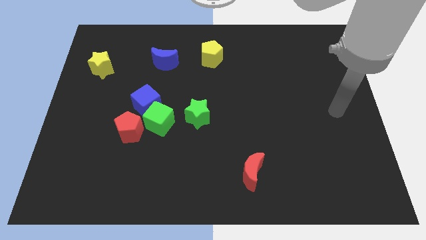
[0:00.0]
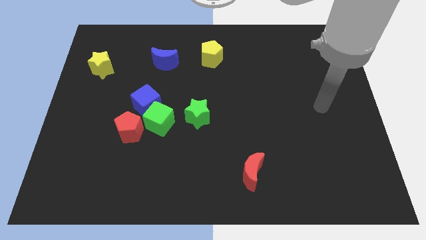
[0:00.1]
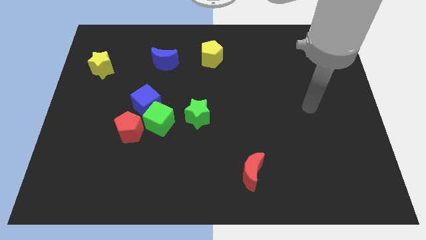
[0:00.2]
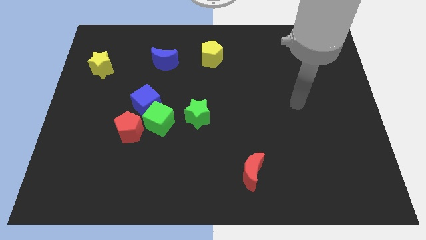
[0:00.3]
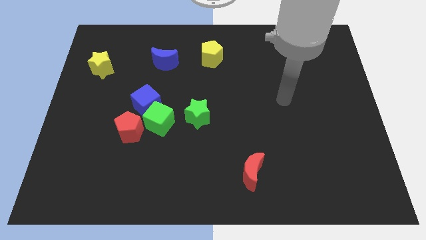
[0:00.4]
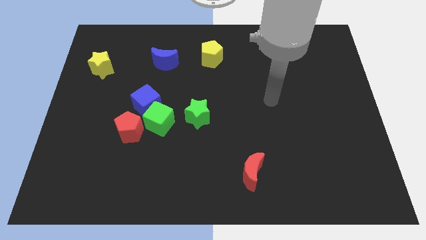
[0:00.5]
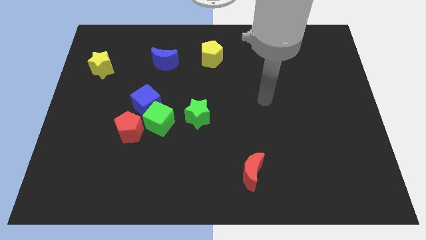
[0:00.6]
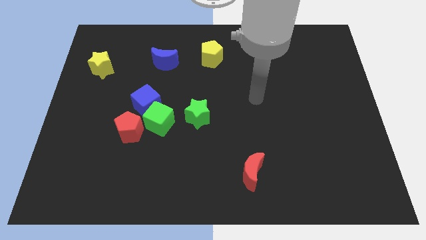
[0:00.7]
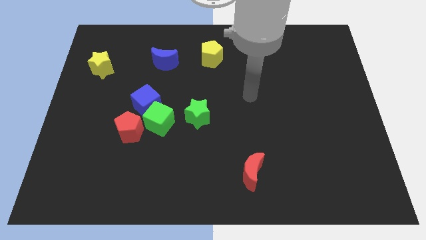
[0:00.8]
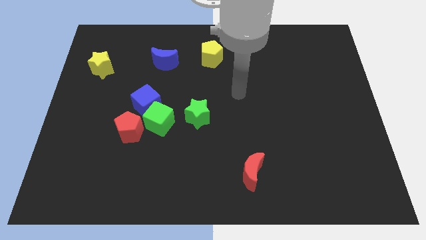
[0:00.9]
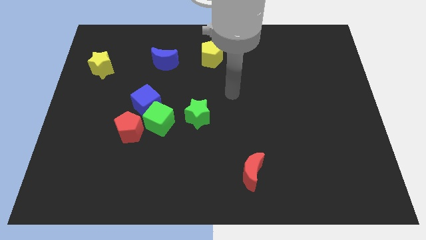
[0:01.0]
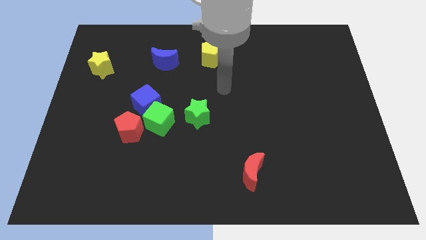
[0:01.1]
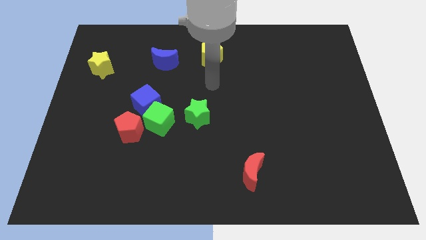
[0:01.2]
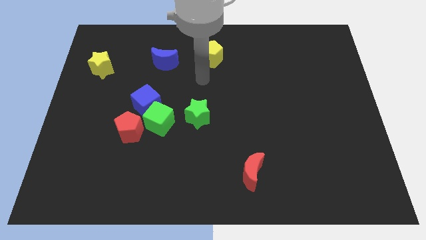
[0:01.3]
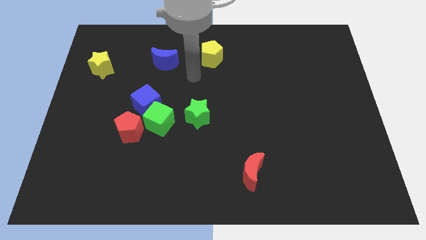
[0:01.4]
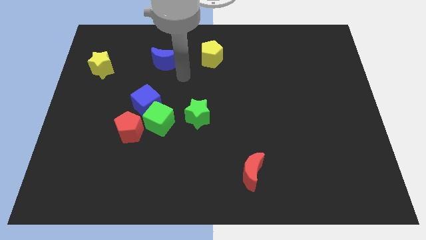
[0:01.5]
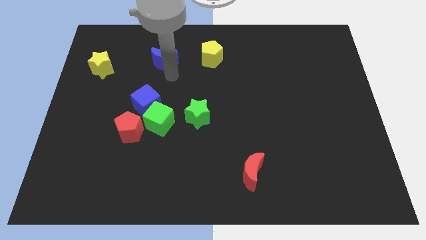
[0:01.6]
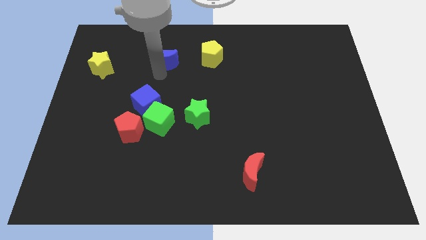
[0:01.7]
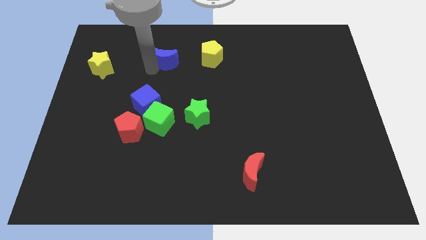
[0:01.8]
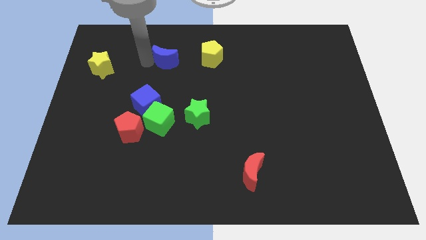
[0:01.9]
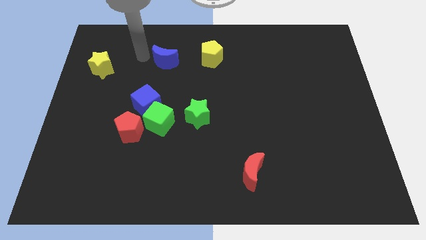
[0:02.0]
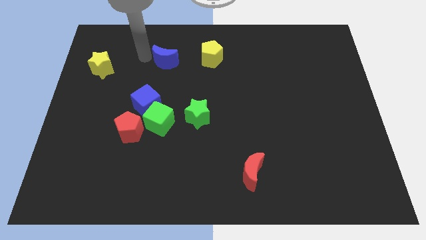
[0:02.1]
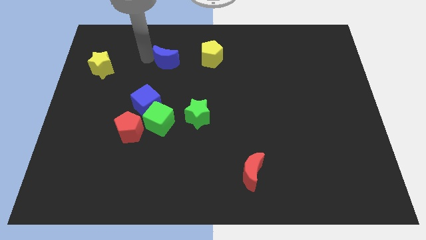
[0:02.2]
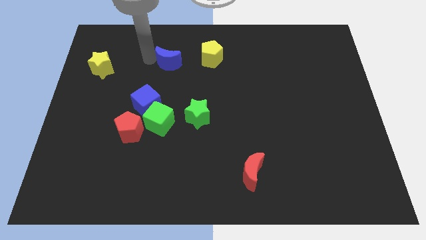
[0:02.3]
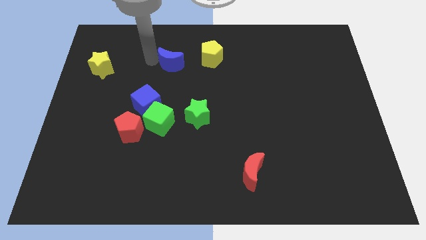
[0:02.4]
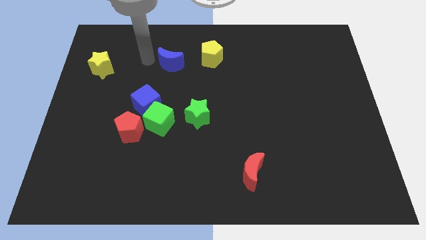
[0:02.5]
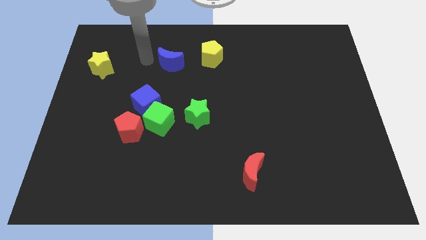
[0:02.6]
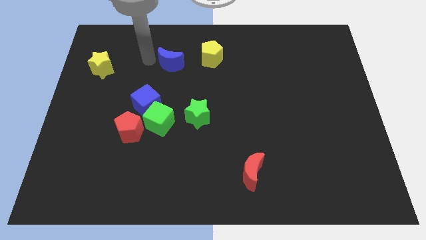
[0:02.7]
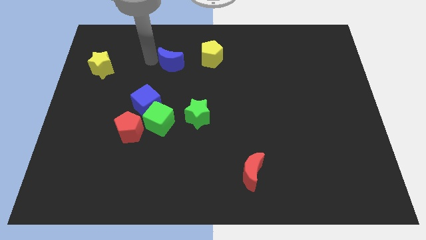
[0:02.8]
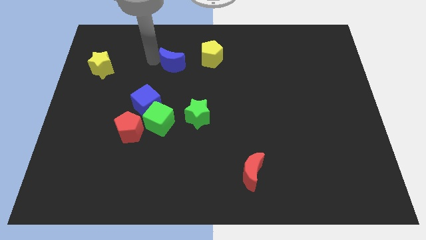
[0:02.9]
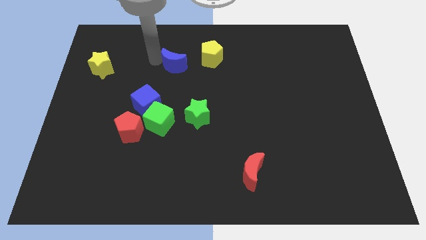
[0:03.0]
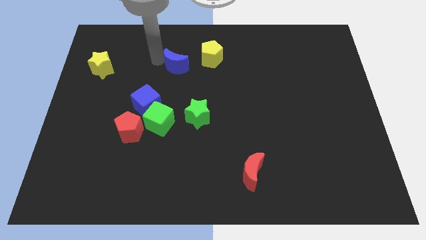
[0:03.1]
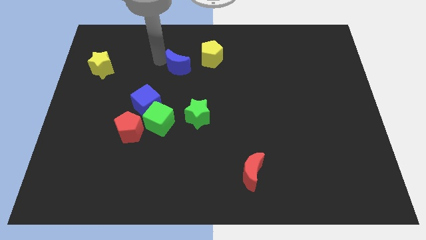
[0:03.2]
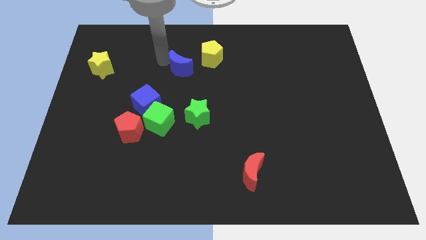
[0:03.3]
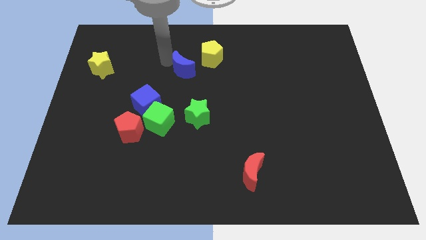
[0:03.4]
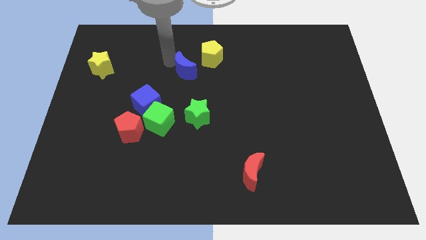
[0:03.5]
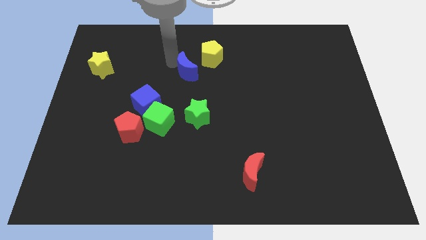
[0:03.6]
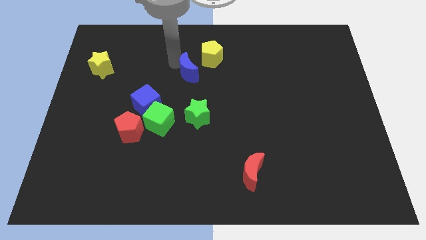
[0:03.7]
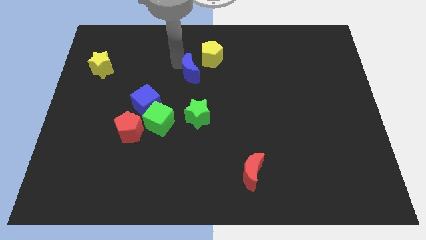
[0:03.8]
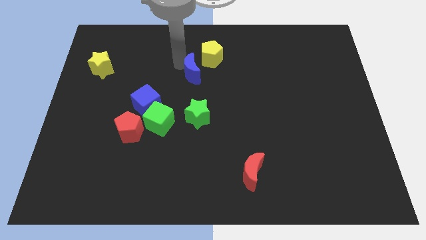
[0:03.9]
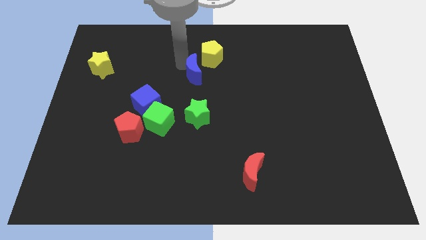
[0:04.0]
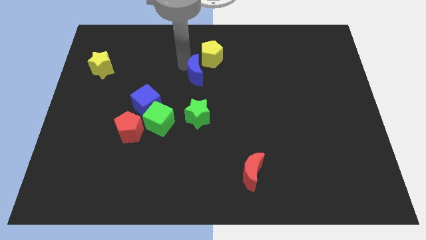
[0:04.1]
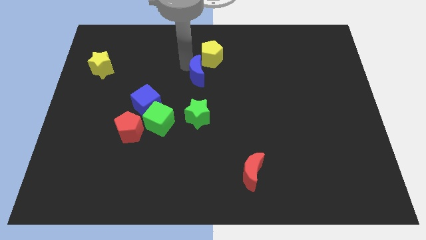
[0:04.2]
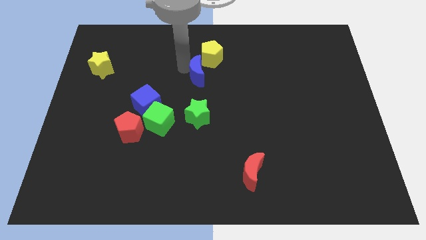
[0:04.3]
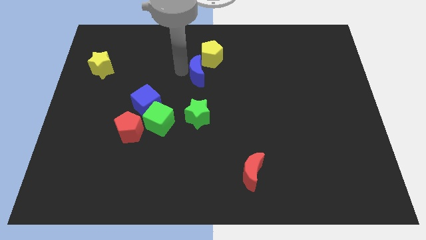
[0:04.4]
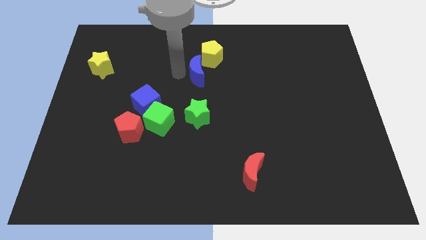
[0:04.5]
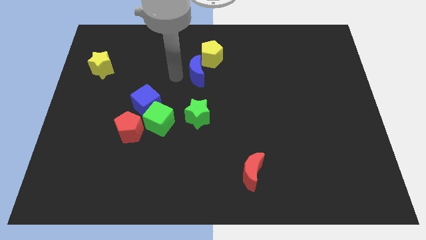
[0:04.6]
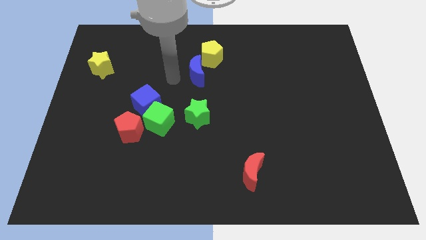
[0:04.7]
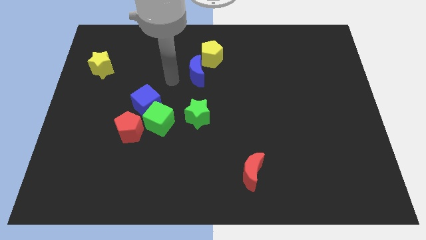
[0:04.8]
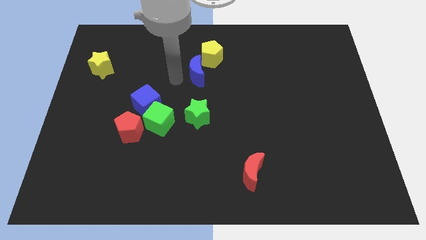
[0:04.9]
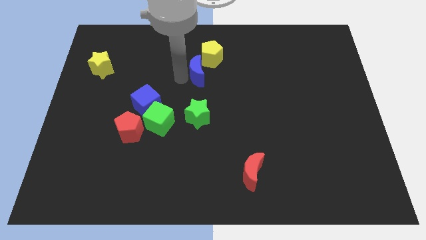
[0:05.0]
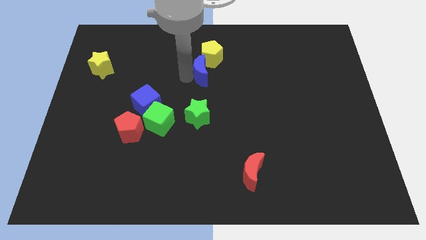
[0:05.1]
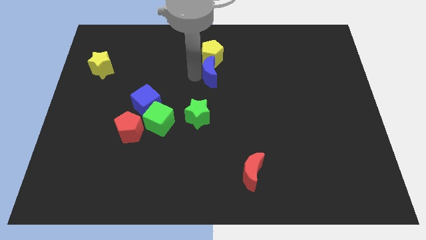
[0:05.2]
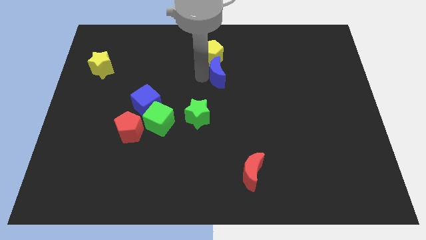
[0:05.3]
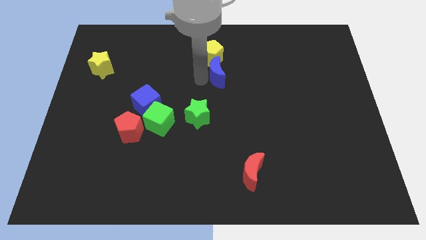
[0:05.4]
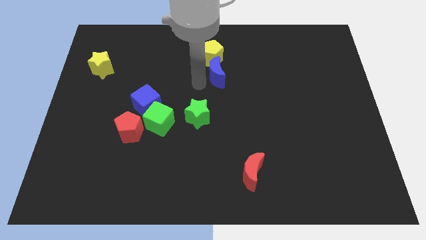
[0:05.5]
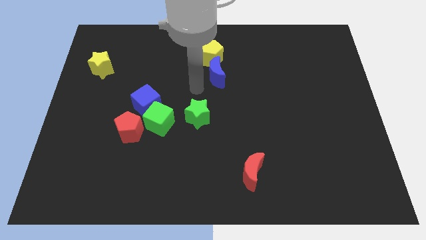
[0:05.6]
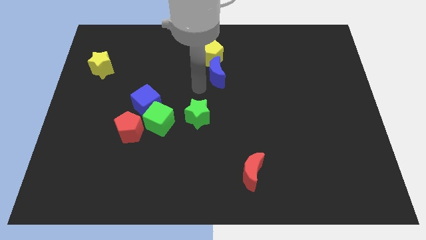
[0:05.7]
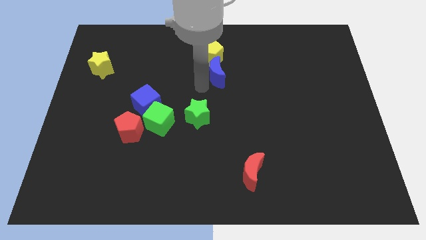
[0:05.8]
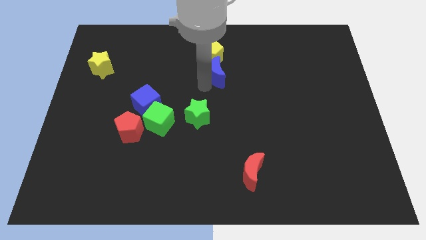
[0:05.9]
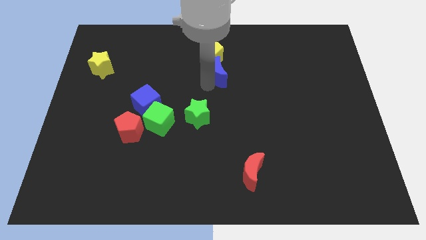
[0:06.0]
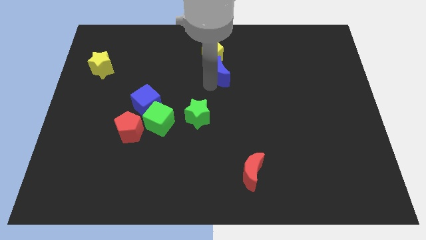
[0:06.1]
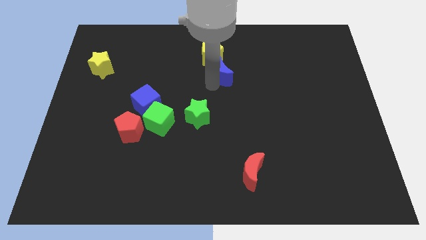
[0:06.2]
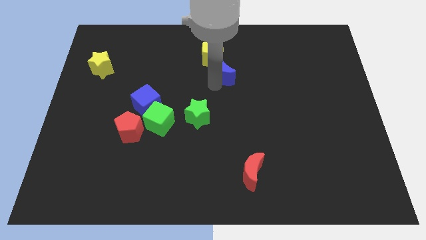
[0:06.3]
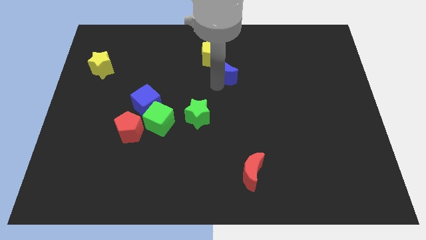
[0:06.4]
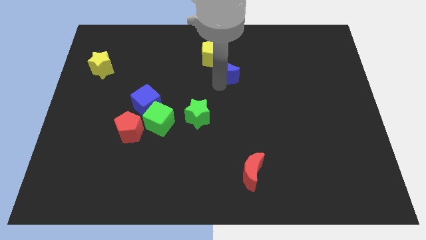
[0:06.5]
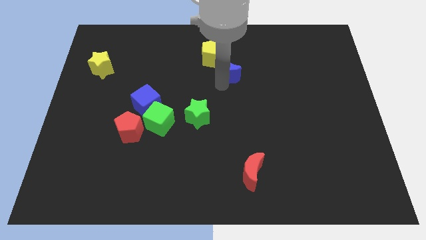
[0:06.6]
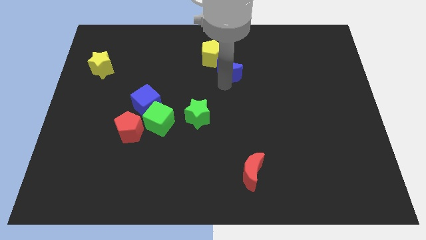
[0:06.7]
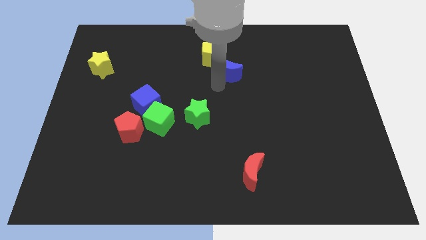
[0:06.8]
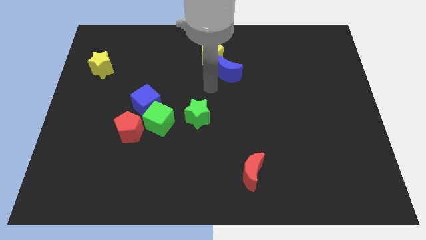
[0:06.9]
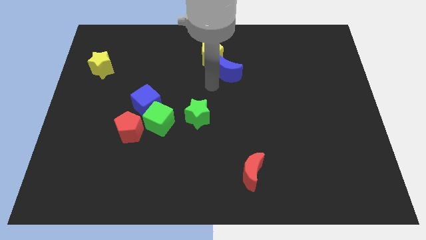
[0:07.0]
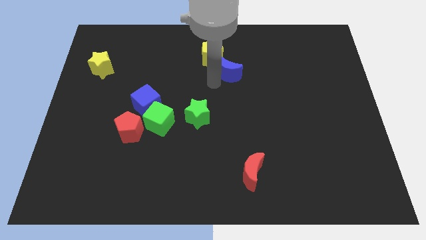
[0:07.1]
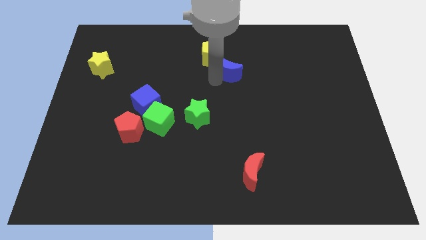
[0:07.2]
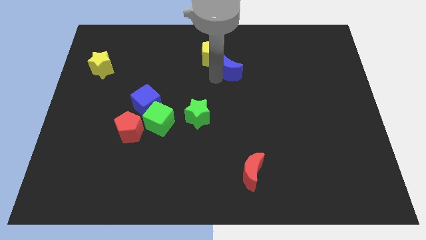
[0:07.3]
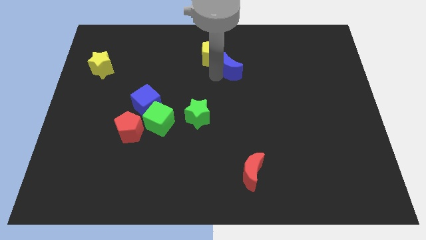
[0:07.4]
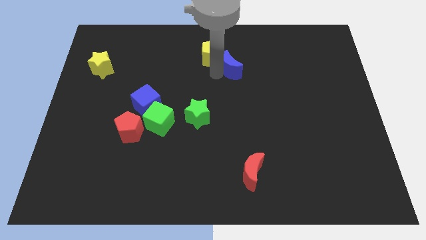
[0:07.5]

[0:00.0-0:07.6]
slide the blue moon just right of the yellow pentagon
